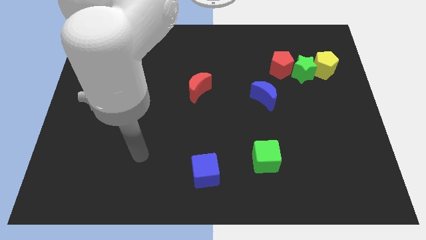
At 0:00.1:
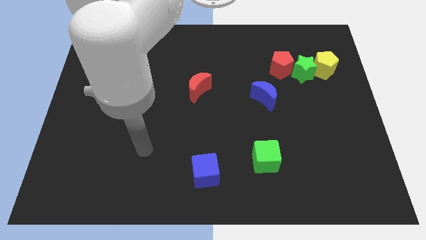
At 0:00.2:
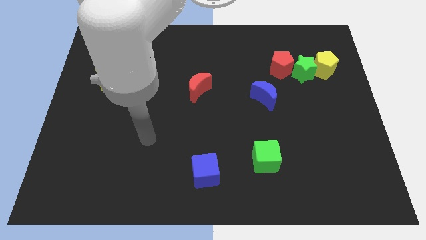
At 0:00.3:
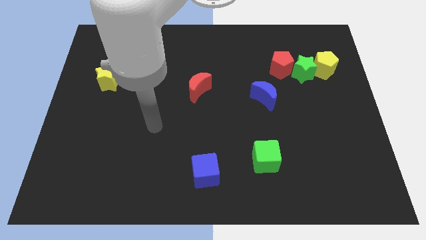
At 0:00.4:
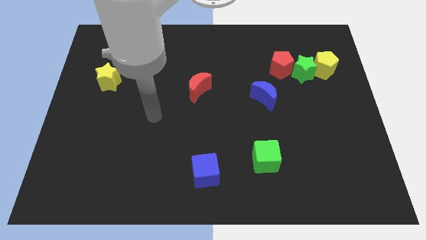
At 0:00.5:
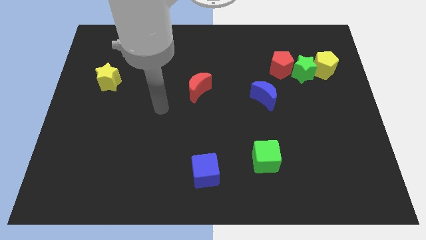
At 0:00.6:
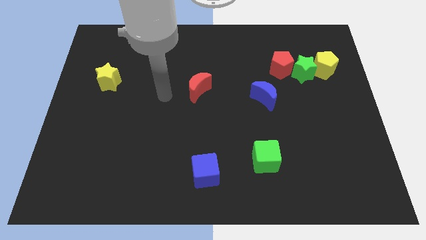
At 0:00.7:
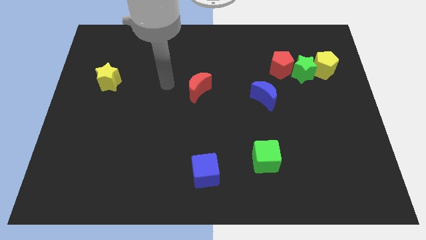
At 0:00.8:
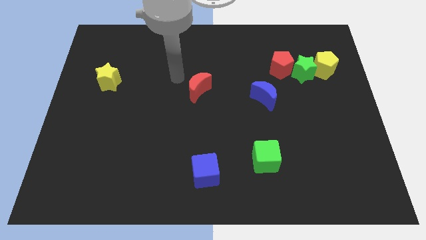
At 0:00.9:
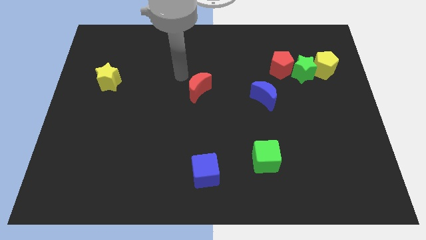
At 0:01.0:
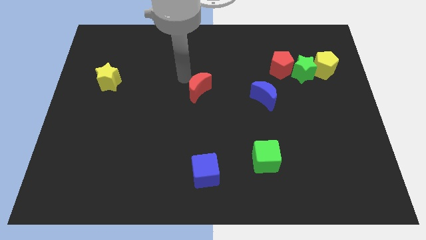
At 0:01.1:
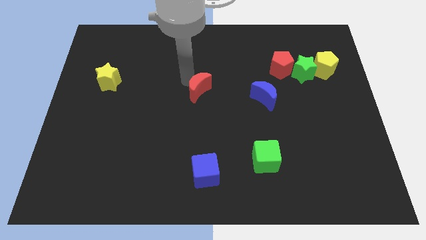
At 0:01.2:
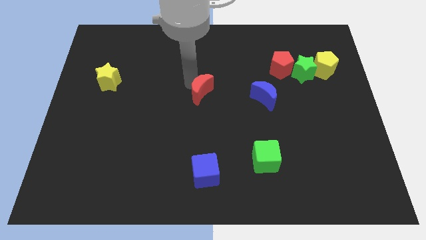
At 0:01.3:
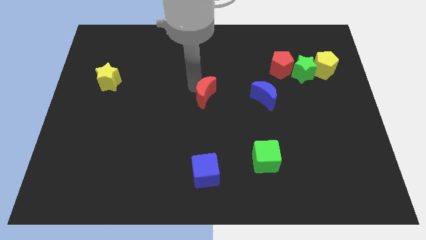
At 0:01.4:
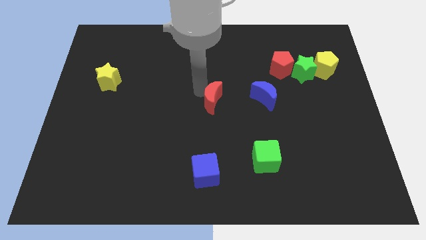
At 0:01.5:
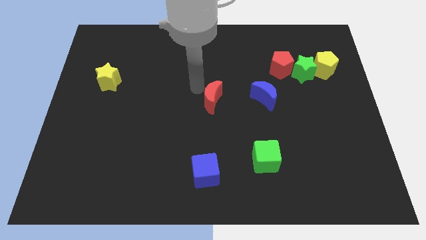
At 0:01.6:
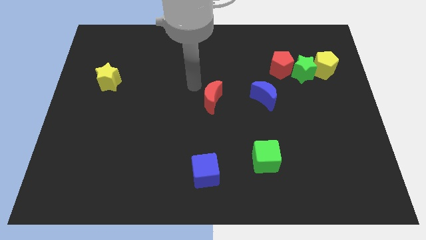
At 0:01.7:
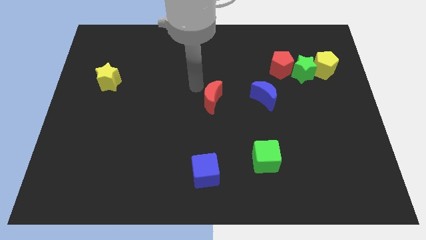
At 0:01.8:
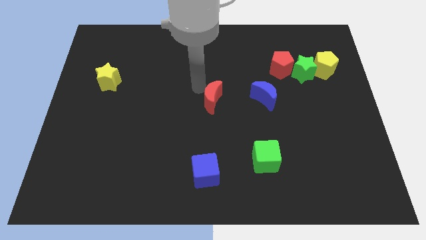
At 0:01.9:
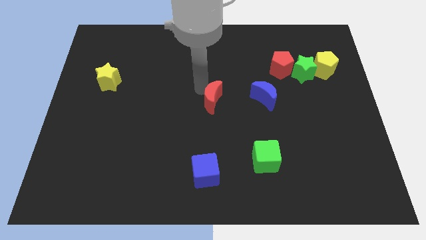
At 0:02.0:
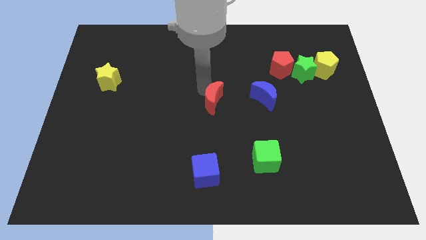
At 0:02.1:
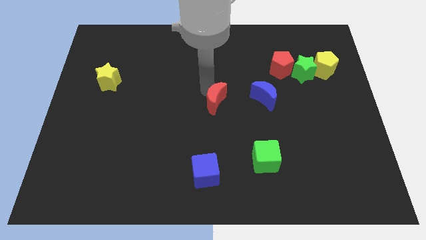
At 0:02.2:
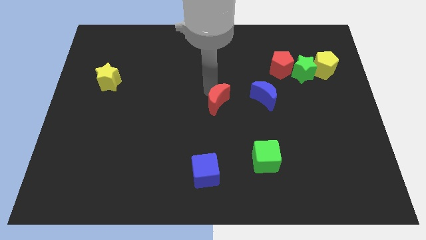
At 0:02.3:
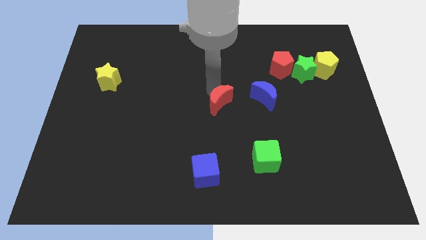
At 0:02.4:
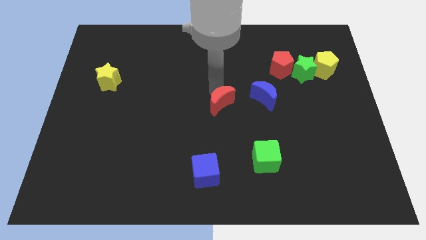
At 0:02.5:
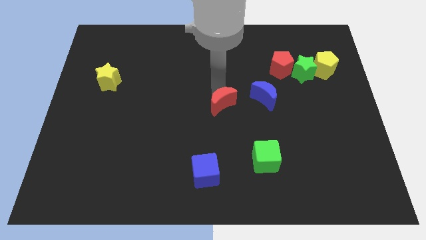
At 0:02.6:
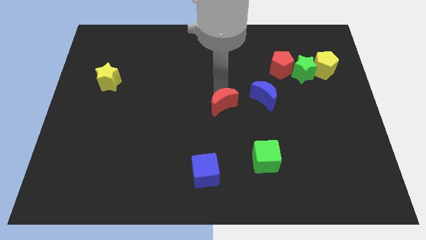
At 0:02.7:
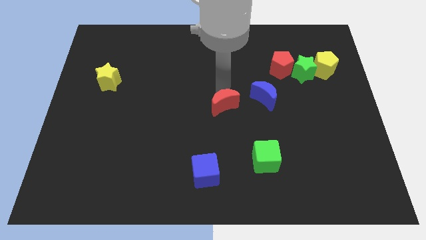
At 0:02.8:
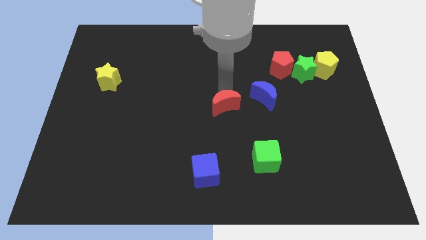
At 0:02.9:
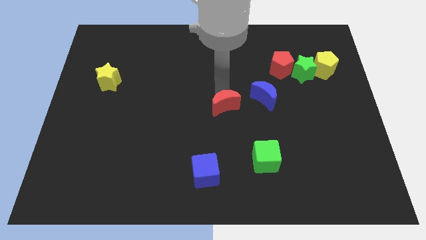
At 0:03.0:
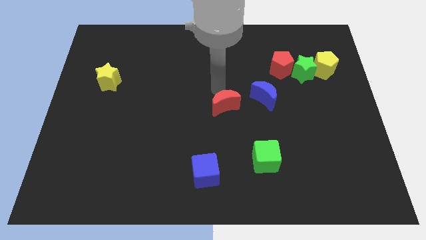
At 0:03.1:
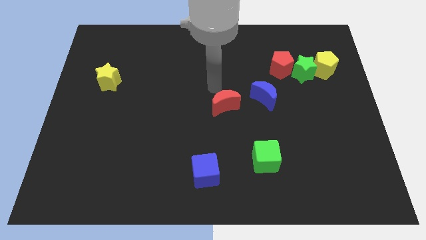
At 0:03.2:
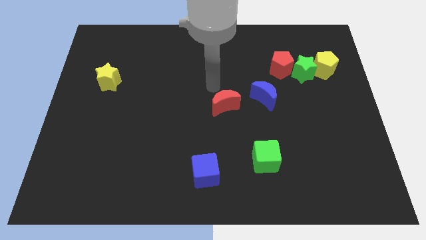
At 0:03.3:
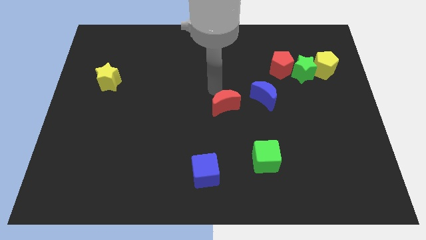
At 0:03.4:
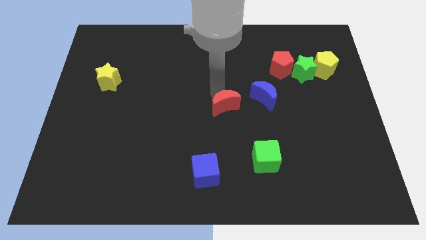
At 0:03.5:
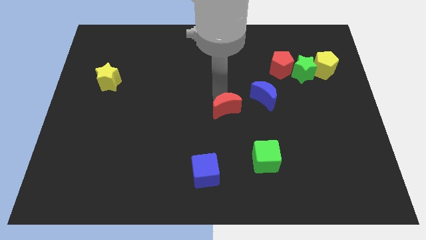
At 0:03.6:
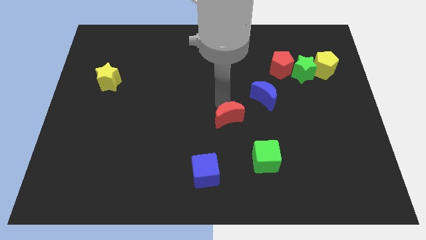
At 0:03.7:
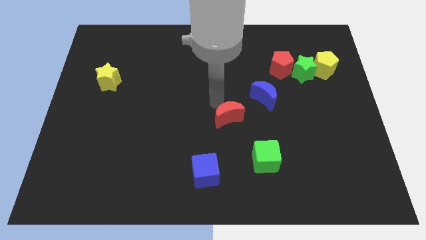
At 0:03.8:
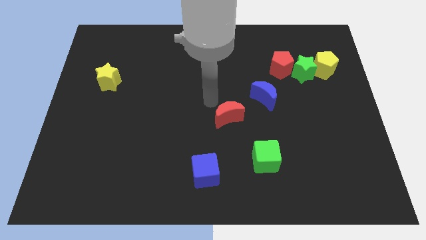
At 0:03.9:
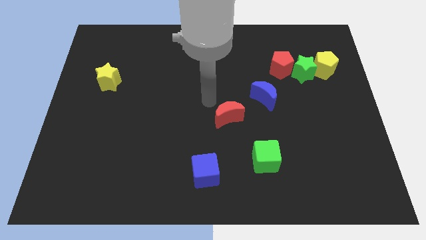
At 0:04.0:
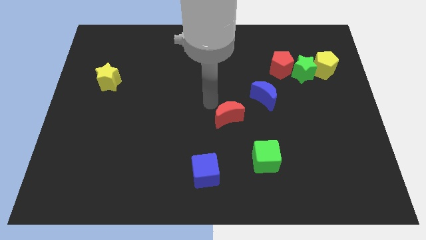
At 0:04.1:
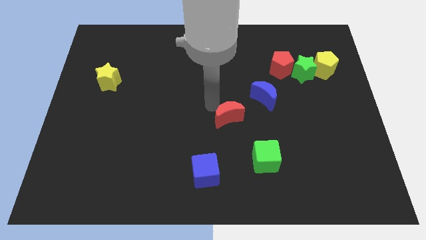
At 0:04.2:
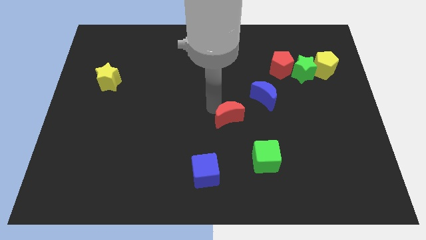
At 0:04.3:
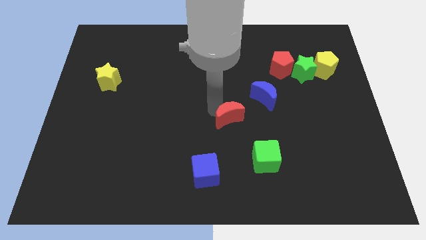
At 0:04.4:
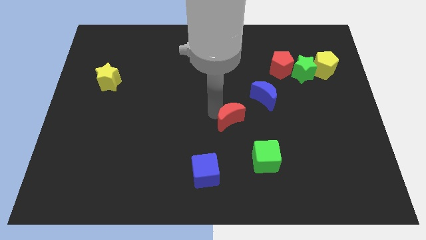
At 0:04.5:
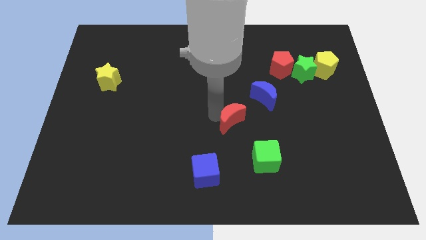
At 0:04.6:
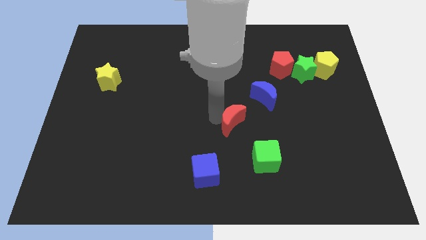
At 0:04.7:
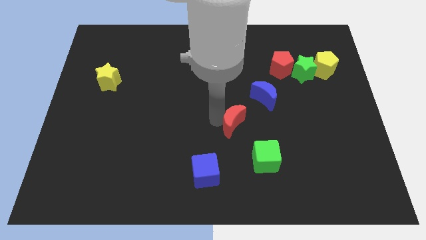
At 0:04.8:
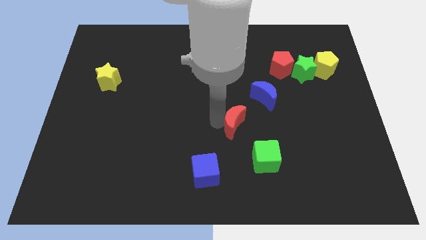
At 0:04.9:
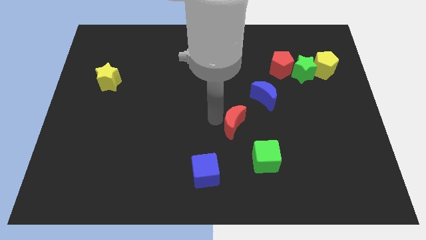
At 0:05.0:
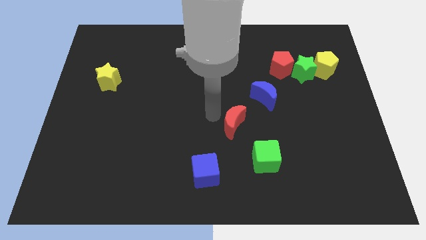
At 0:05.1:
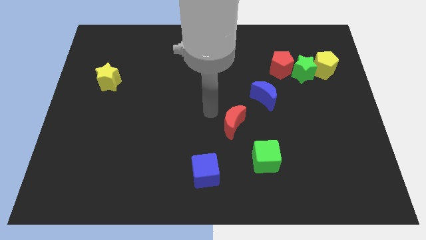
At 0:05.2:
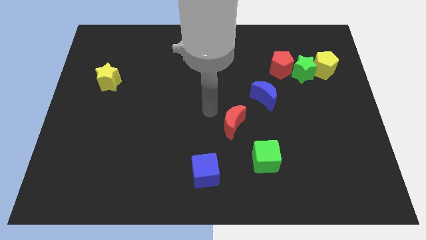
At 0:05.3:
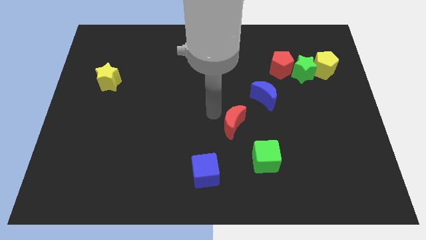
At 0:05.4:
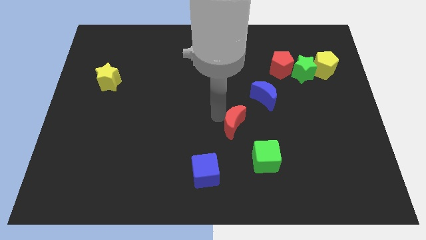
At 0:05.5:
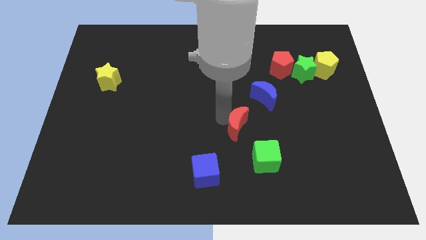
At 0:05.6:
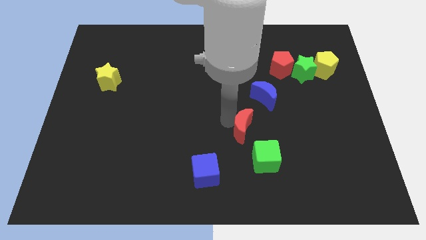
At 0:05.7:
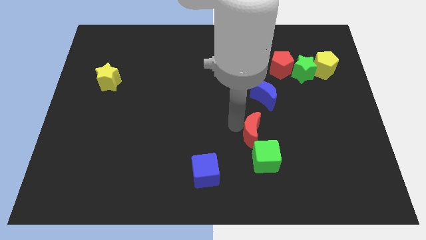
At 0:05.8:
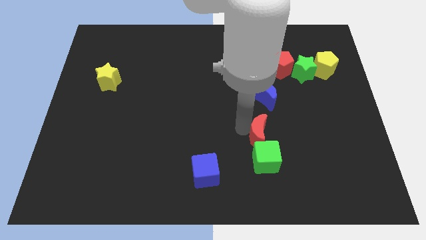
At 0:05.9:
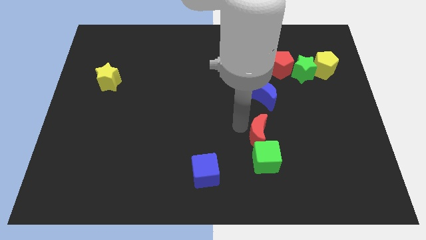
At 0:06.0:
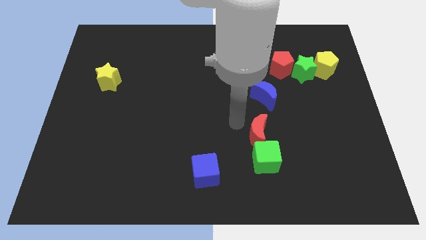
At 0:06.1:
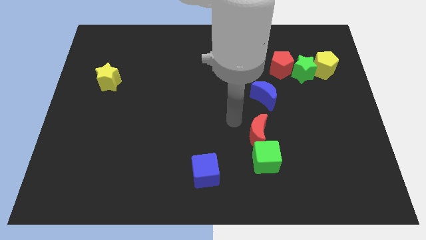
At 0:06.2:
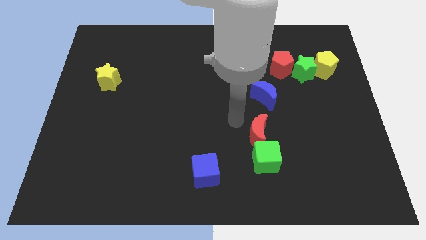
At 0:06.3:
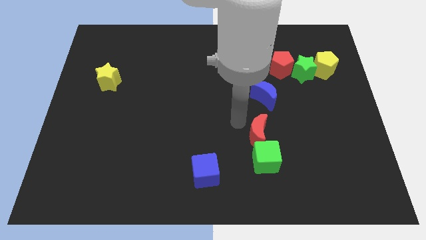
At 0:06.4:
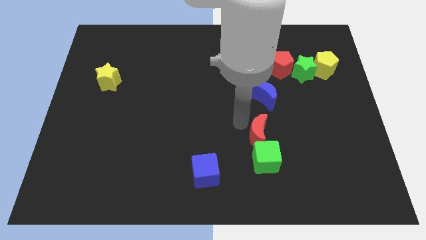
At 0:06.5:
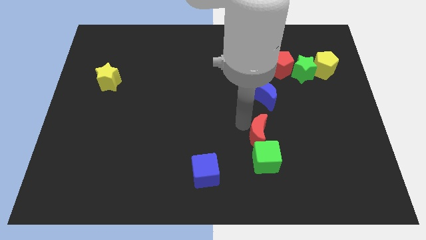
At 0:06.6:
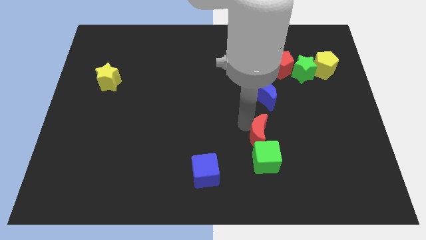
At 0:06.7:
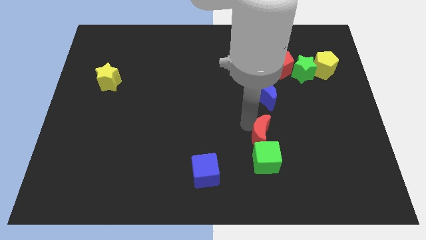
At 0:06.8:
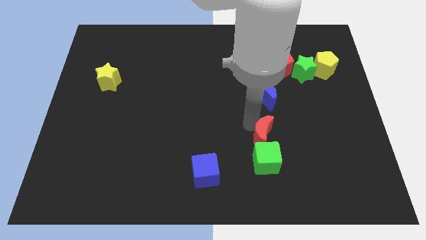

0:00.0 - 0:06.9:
move the red moon diagonally downwards and to the right

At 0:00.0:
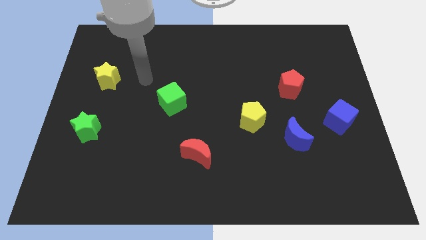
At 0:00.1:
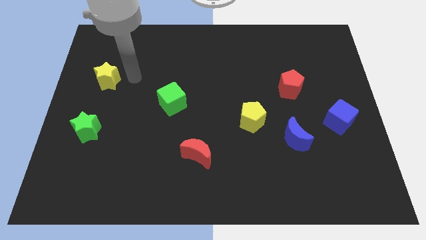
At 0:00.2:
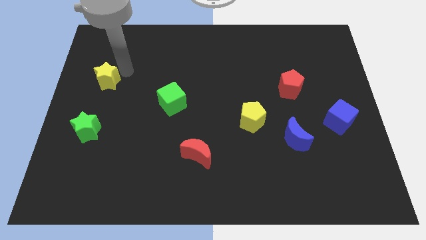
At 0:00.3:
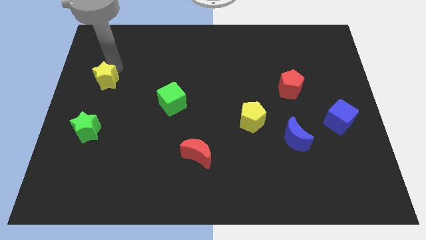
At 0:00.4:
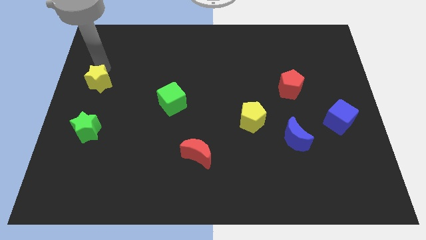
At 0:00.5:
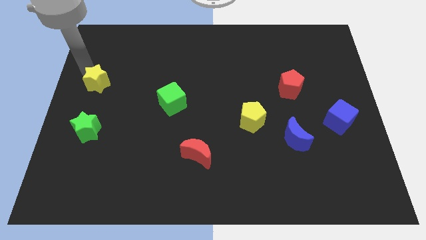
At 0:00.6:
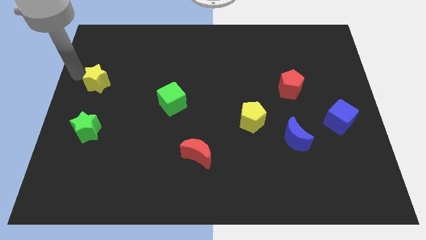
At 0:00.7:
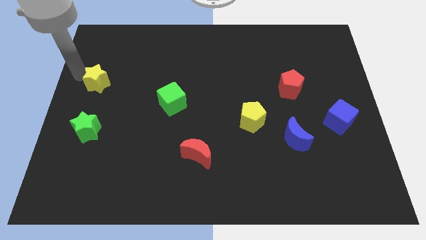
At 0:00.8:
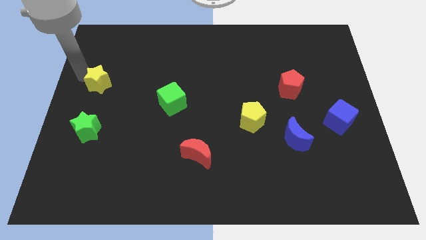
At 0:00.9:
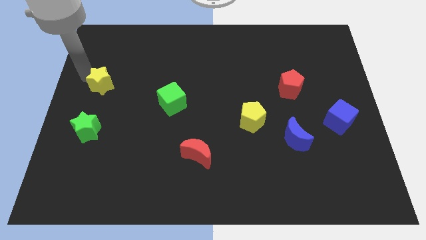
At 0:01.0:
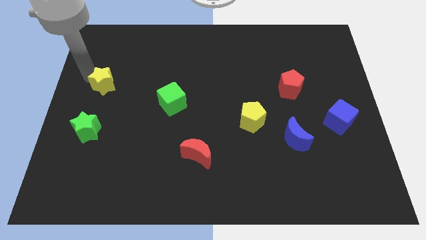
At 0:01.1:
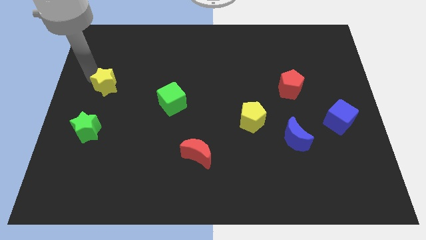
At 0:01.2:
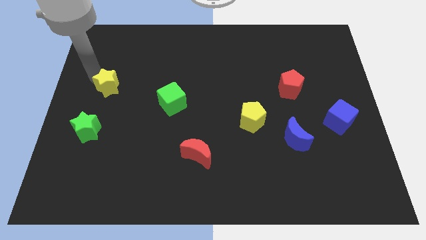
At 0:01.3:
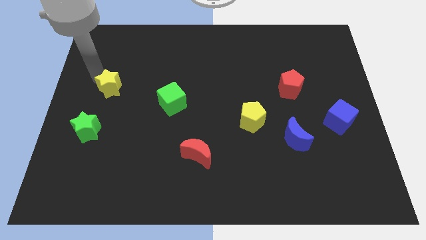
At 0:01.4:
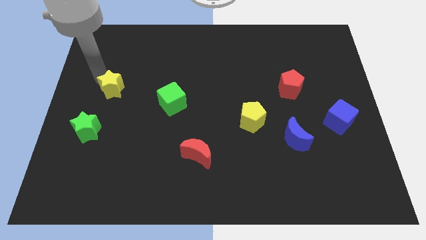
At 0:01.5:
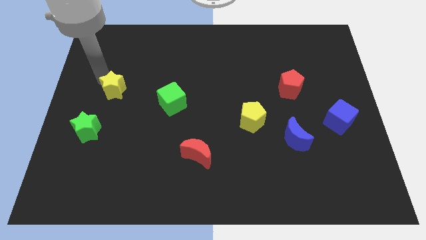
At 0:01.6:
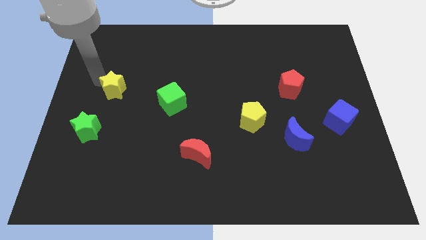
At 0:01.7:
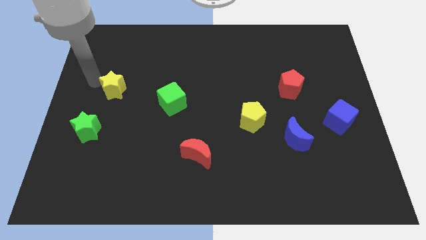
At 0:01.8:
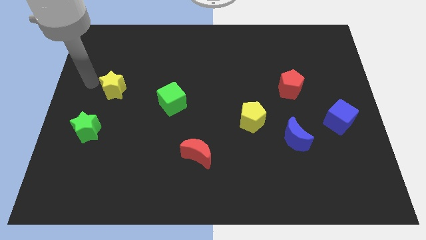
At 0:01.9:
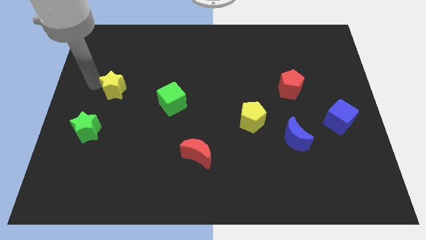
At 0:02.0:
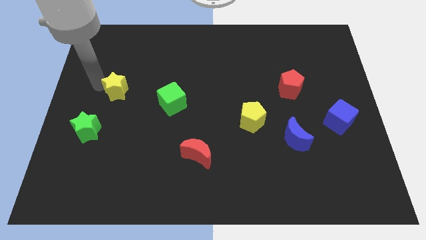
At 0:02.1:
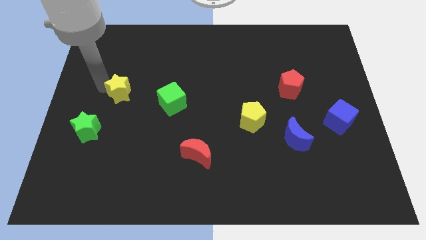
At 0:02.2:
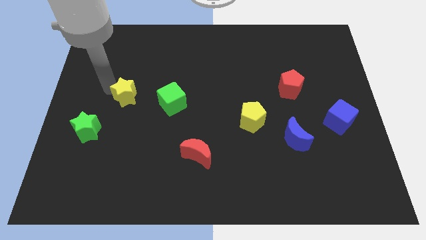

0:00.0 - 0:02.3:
move the yellow star downwards and to the right diagonally somewhat
